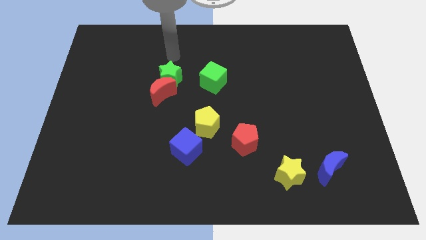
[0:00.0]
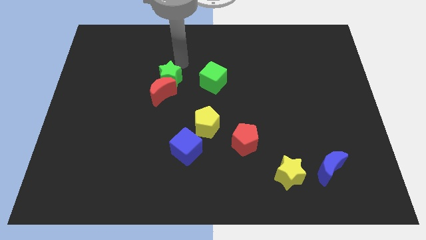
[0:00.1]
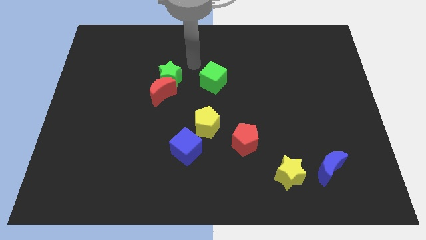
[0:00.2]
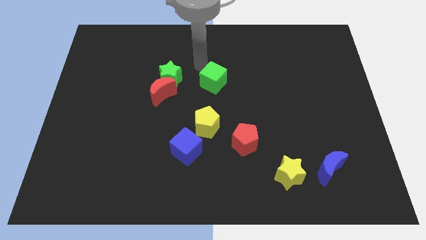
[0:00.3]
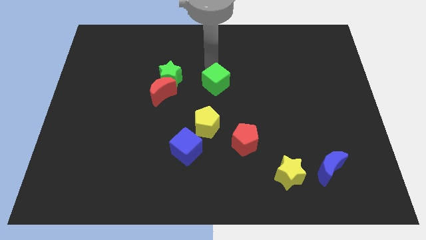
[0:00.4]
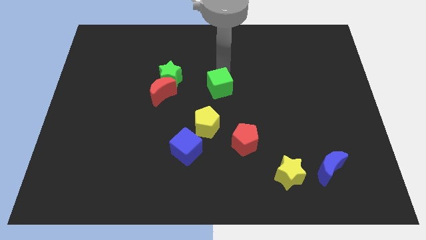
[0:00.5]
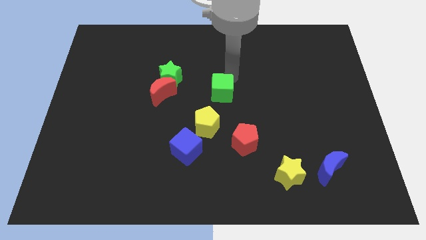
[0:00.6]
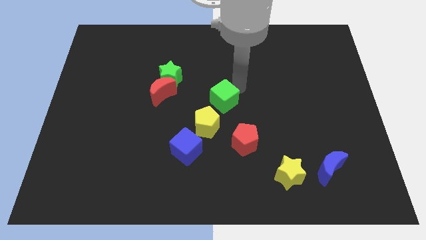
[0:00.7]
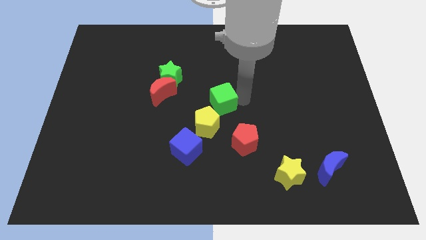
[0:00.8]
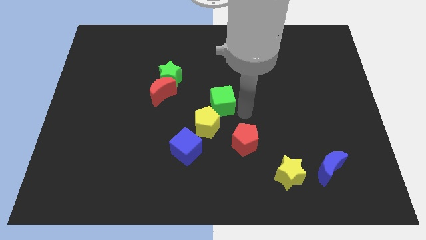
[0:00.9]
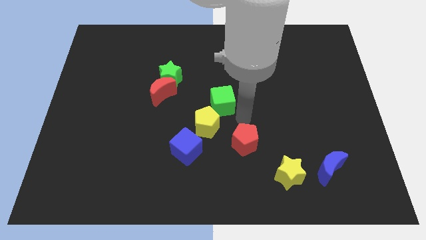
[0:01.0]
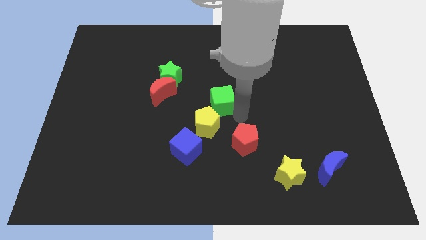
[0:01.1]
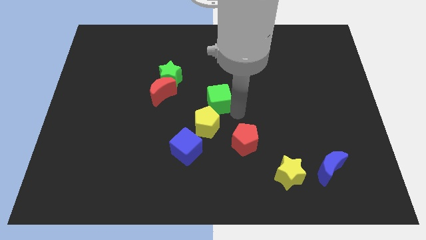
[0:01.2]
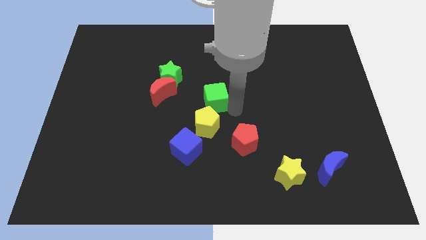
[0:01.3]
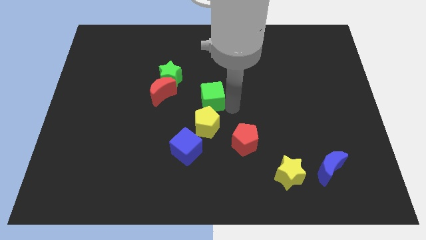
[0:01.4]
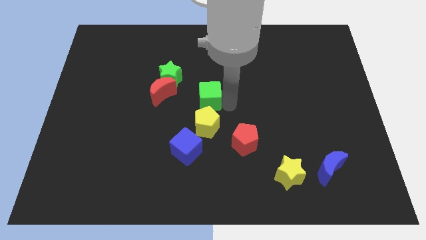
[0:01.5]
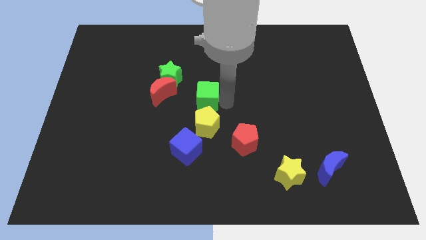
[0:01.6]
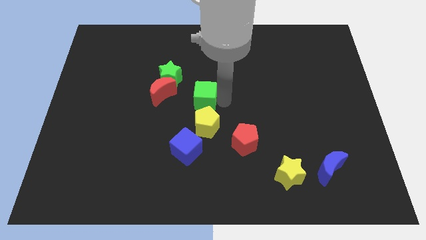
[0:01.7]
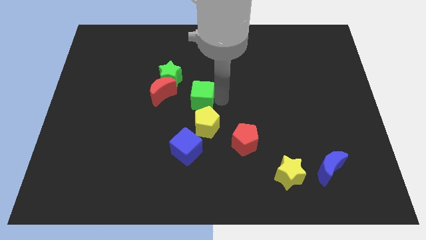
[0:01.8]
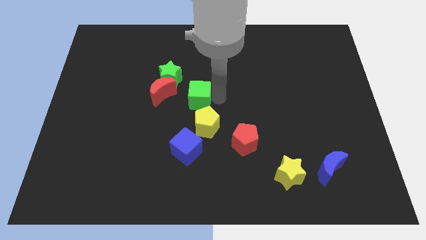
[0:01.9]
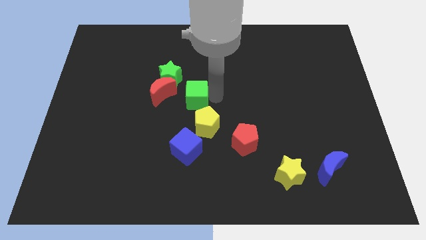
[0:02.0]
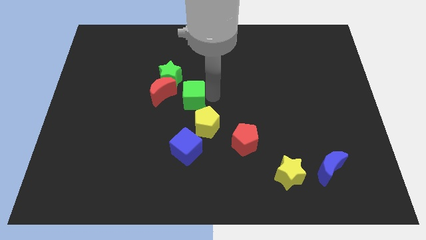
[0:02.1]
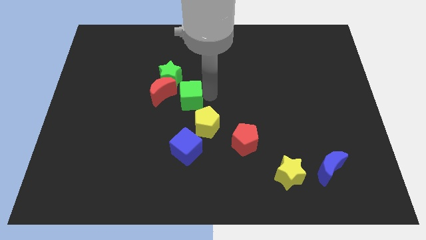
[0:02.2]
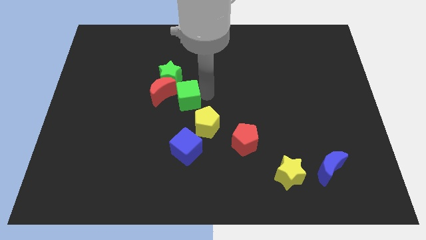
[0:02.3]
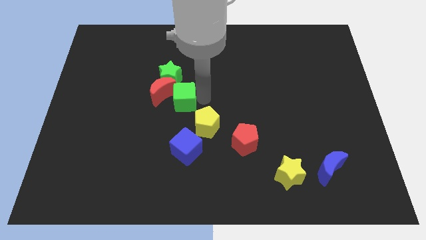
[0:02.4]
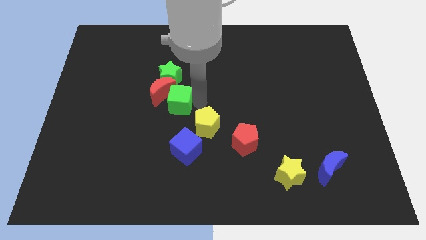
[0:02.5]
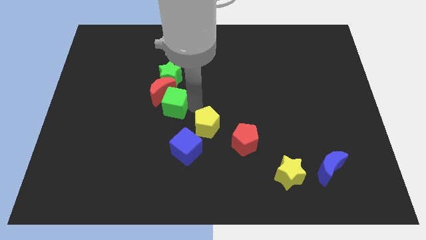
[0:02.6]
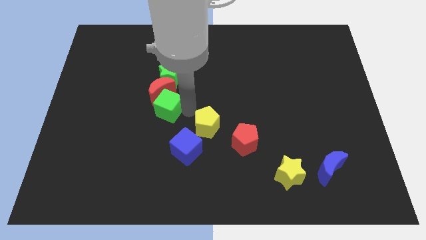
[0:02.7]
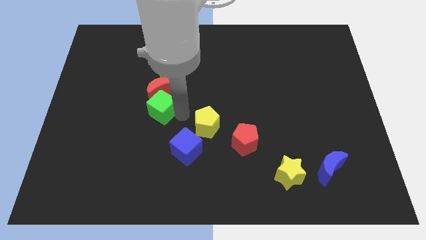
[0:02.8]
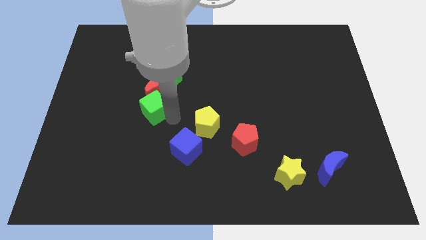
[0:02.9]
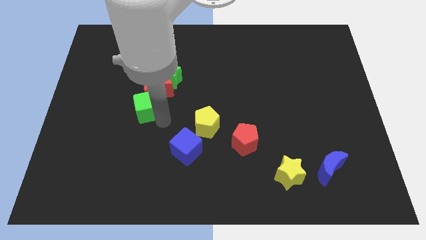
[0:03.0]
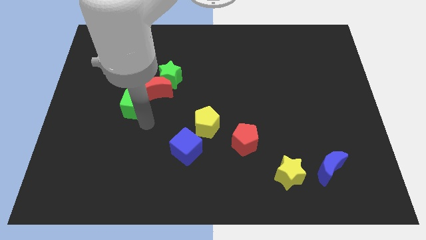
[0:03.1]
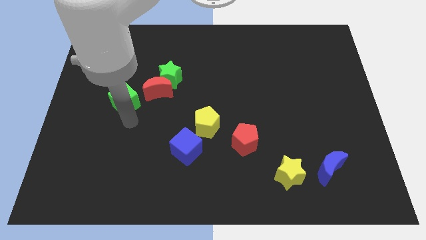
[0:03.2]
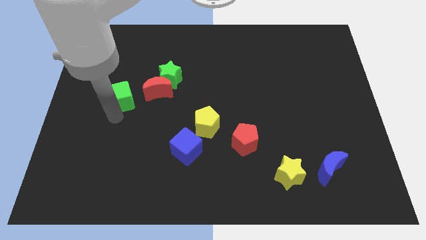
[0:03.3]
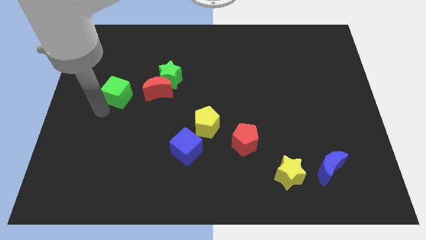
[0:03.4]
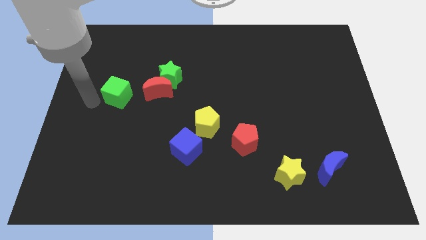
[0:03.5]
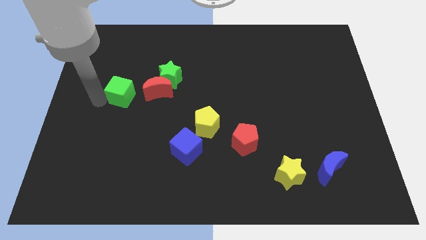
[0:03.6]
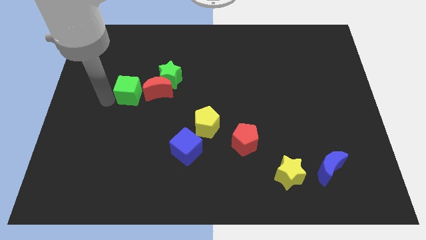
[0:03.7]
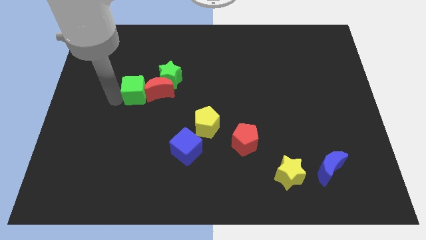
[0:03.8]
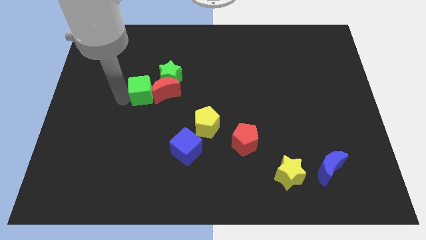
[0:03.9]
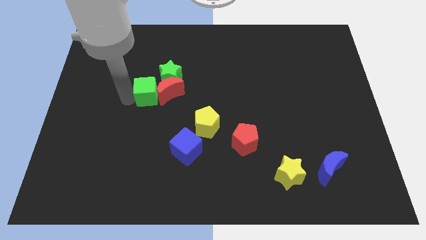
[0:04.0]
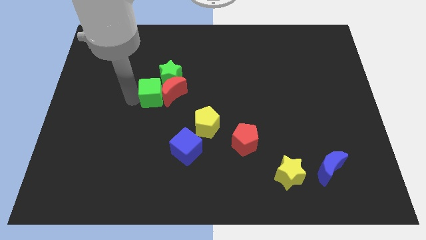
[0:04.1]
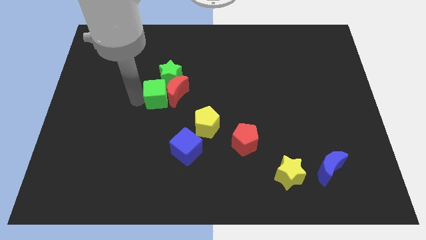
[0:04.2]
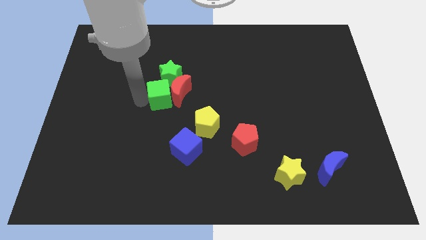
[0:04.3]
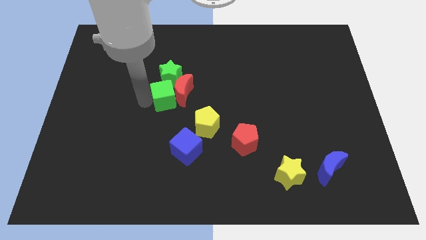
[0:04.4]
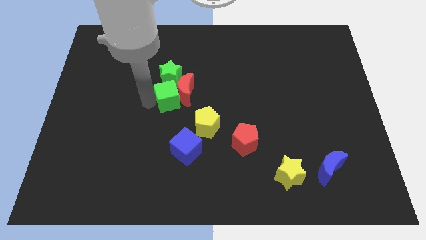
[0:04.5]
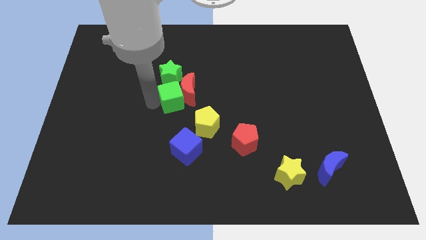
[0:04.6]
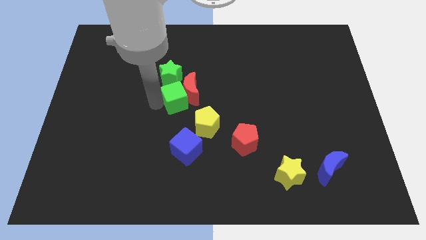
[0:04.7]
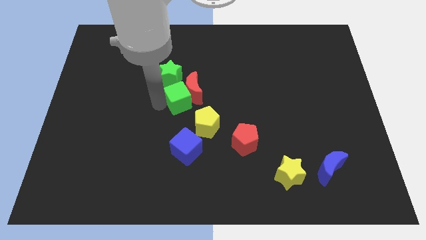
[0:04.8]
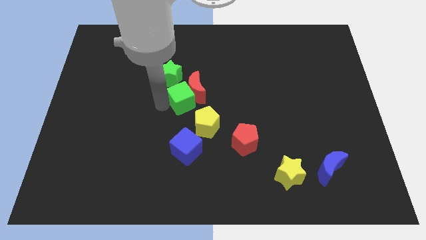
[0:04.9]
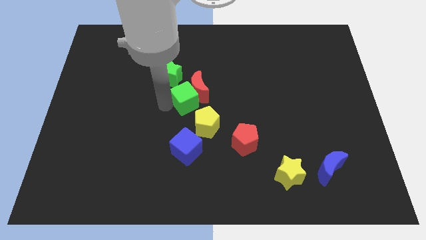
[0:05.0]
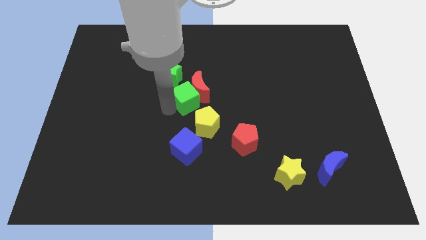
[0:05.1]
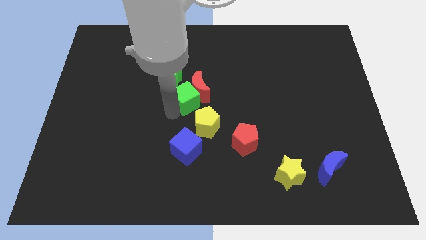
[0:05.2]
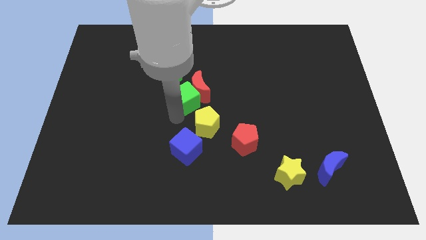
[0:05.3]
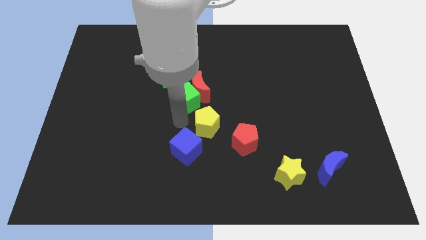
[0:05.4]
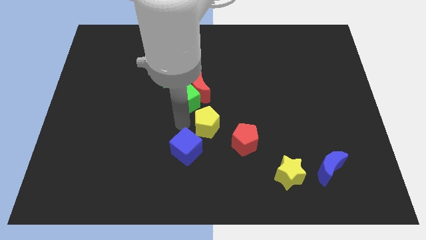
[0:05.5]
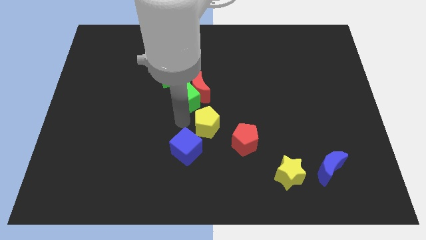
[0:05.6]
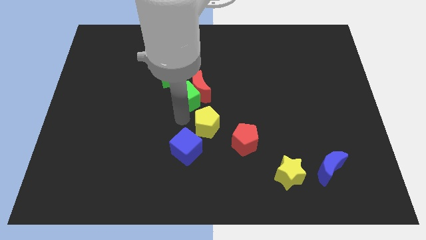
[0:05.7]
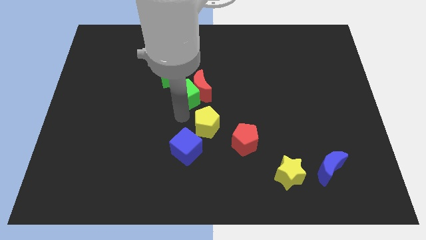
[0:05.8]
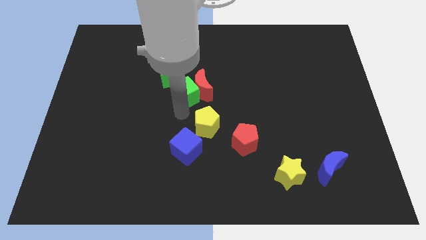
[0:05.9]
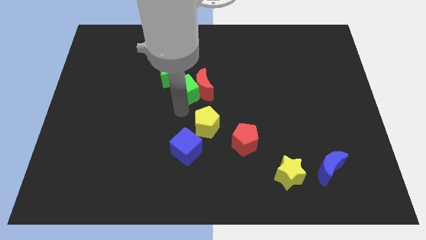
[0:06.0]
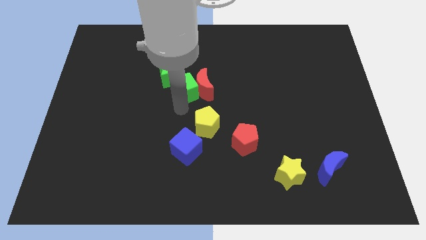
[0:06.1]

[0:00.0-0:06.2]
push the green cube towards the green star

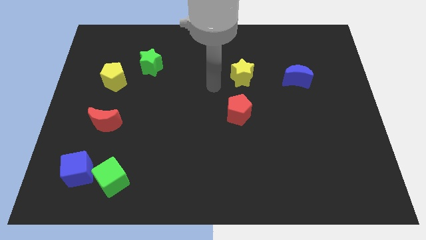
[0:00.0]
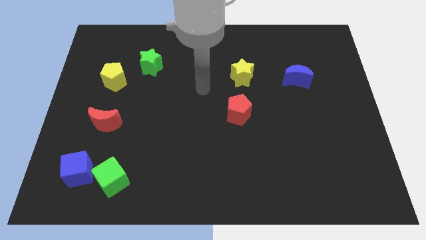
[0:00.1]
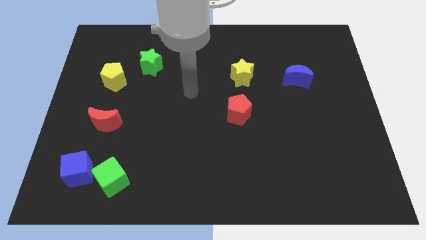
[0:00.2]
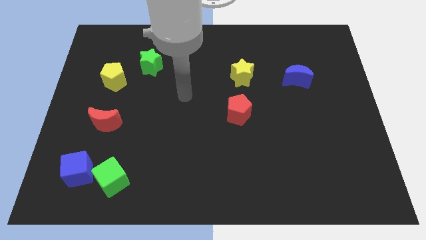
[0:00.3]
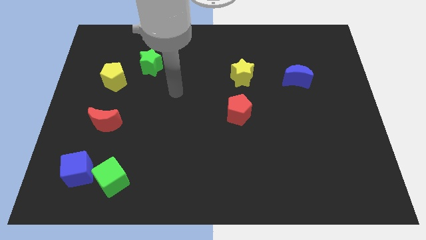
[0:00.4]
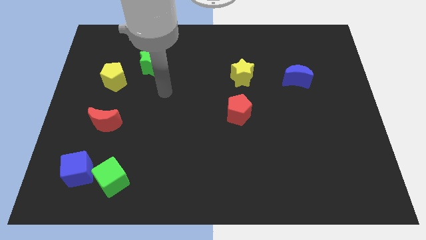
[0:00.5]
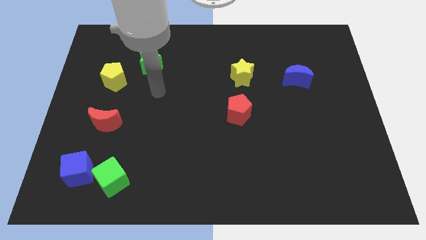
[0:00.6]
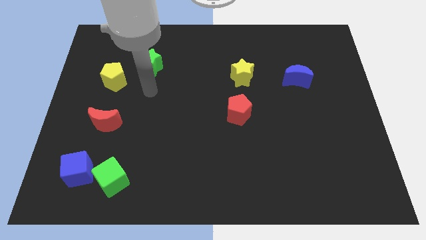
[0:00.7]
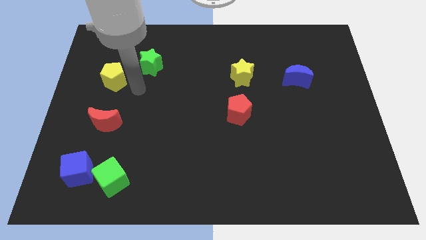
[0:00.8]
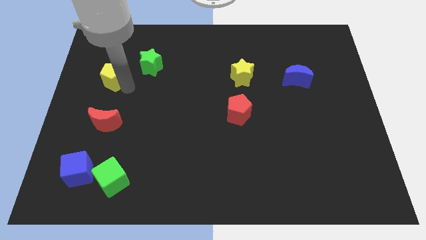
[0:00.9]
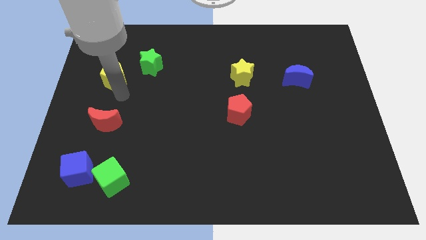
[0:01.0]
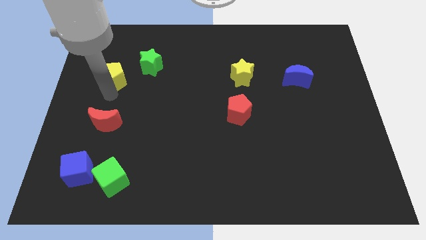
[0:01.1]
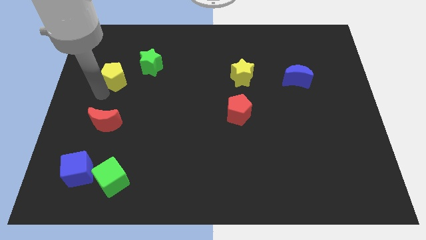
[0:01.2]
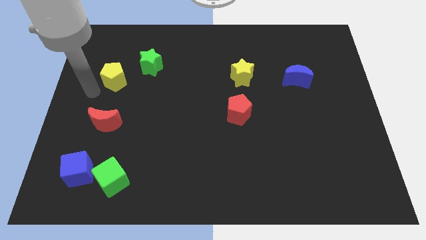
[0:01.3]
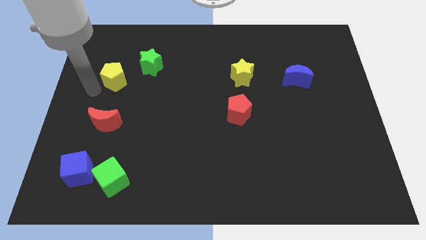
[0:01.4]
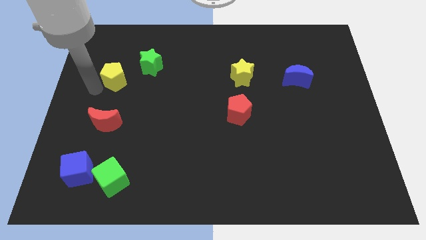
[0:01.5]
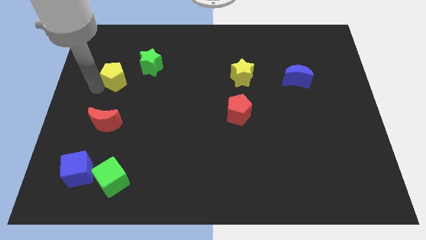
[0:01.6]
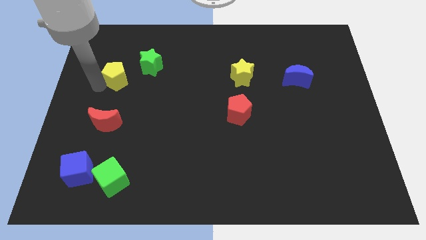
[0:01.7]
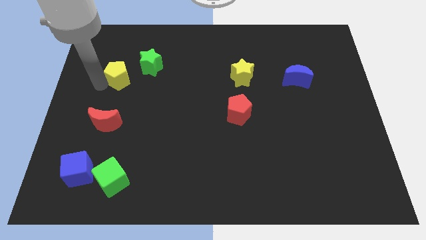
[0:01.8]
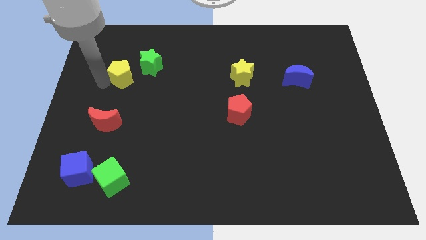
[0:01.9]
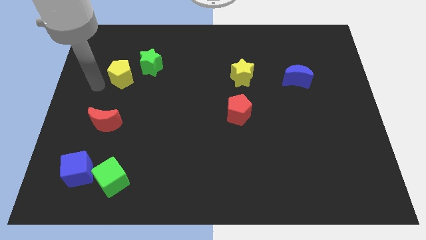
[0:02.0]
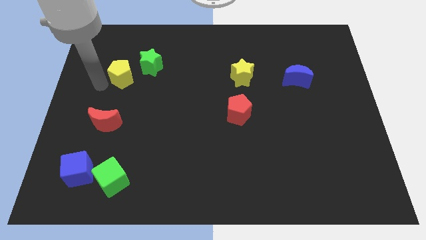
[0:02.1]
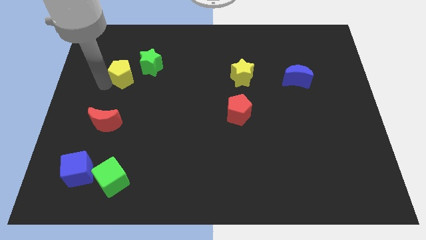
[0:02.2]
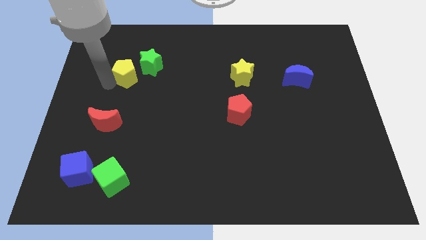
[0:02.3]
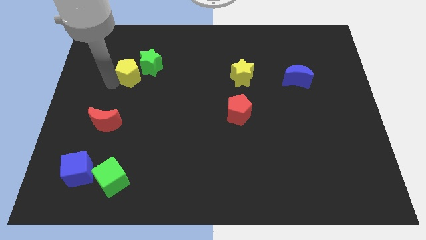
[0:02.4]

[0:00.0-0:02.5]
move the yellow pentagon towards the green star
